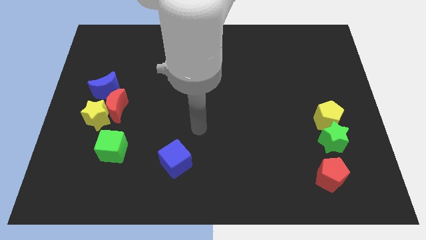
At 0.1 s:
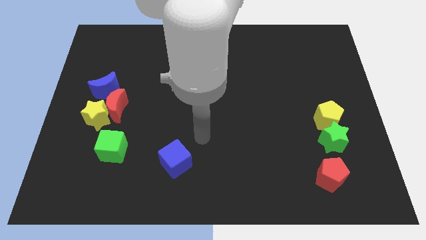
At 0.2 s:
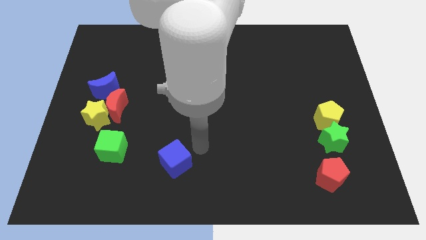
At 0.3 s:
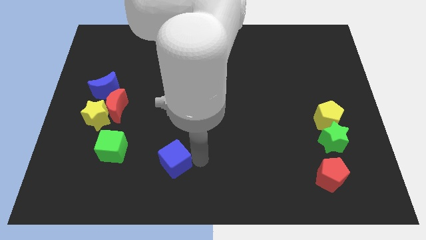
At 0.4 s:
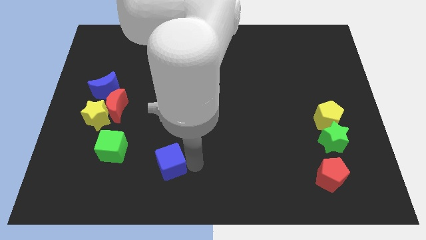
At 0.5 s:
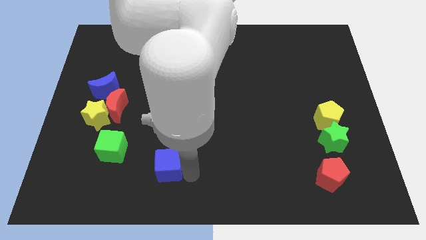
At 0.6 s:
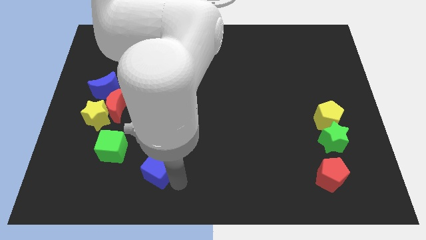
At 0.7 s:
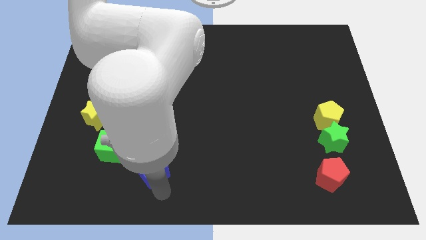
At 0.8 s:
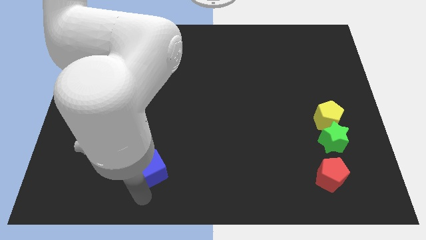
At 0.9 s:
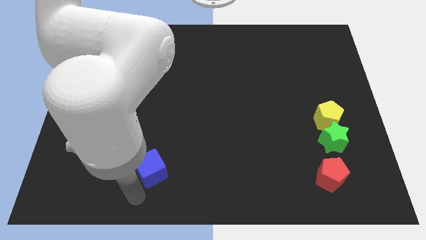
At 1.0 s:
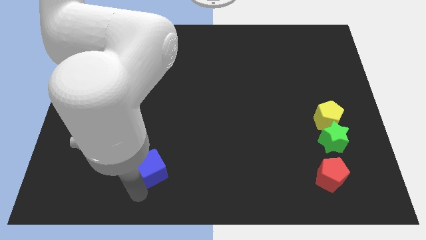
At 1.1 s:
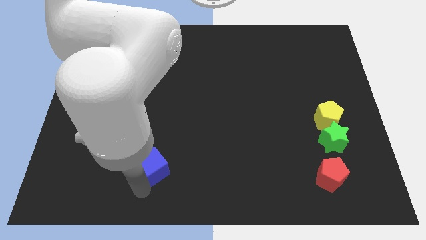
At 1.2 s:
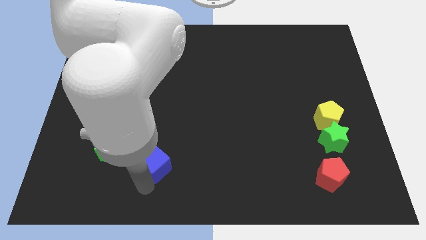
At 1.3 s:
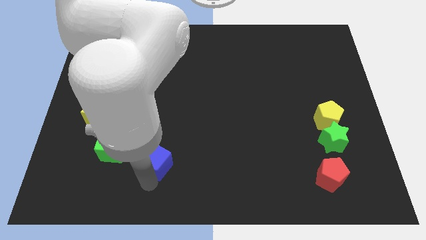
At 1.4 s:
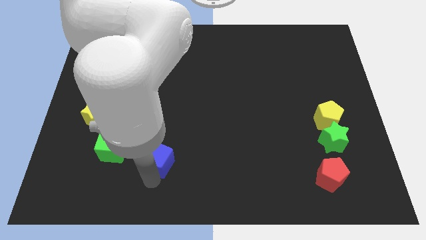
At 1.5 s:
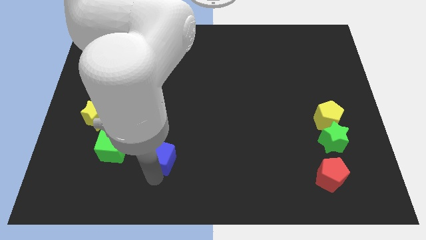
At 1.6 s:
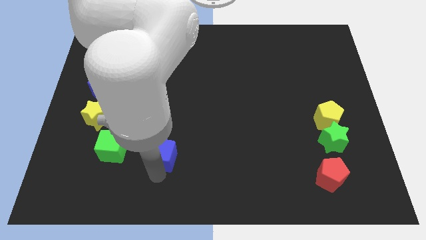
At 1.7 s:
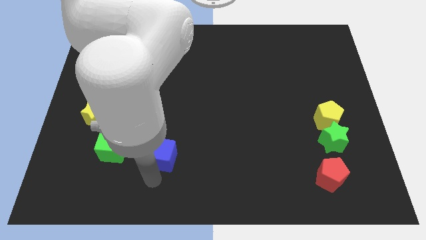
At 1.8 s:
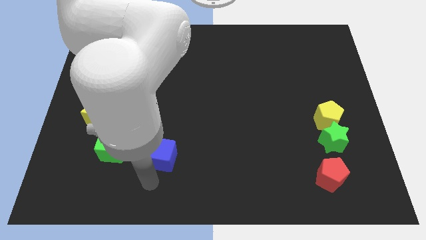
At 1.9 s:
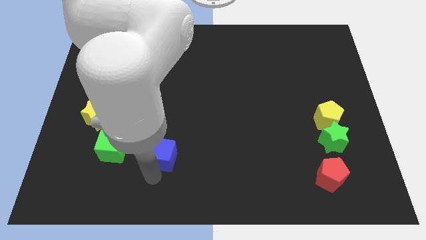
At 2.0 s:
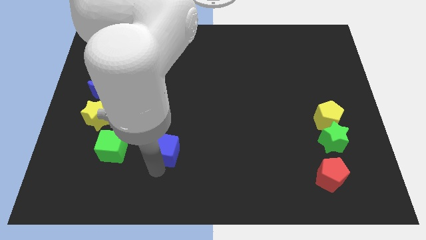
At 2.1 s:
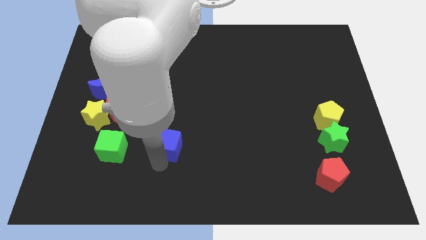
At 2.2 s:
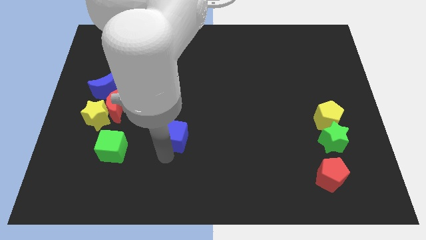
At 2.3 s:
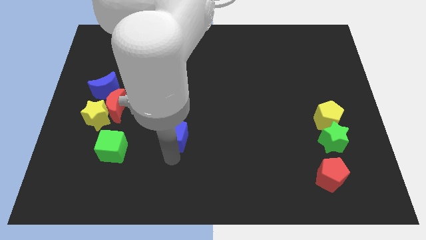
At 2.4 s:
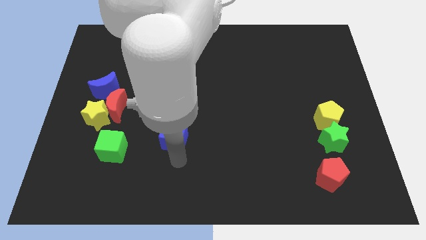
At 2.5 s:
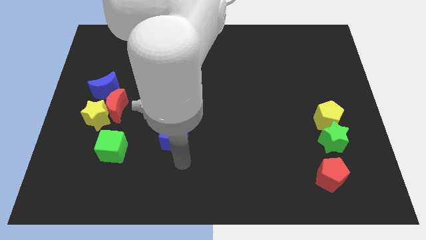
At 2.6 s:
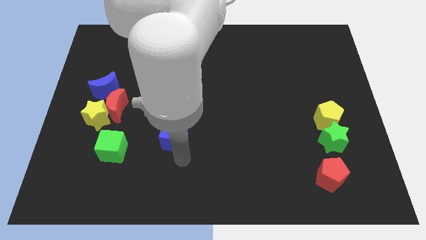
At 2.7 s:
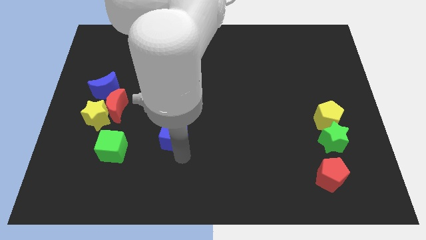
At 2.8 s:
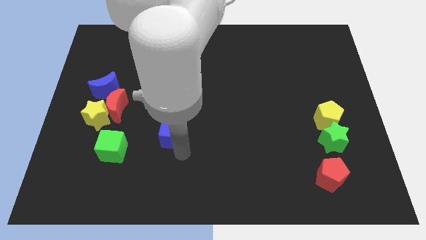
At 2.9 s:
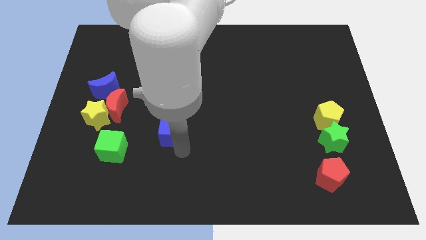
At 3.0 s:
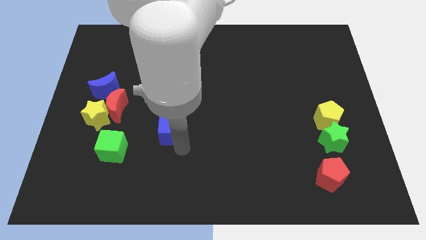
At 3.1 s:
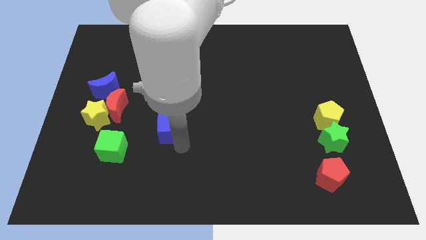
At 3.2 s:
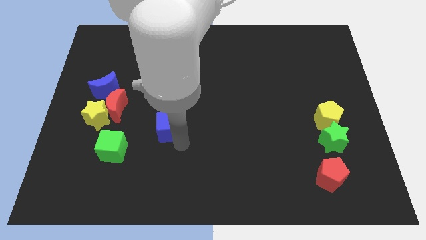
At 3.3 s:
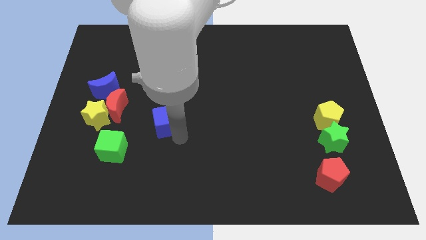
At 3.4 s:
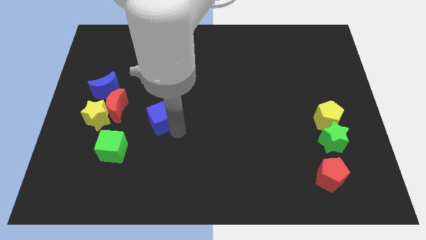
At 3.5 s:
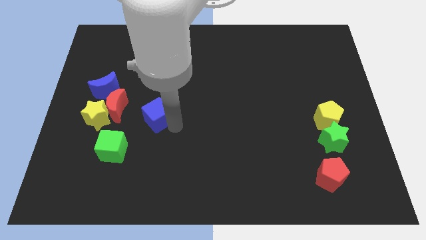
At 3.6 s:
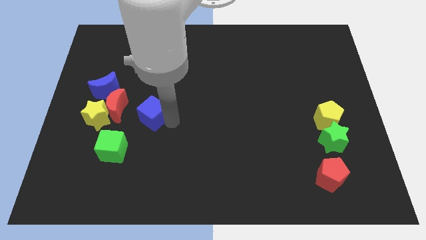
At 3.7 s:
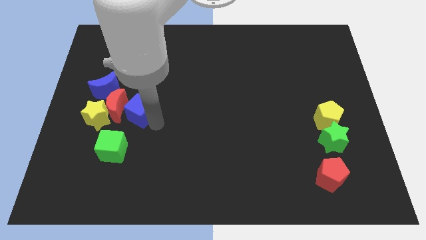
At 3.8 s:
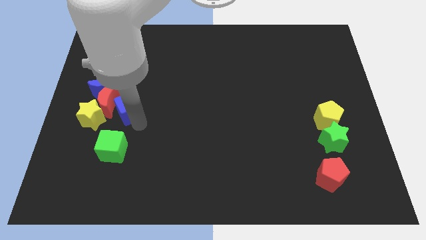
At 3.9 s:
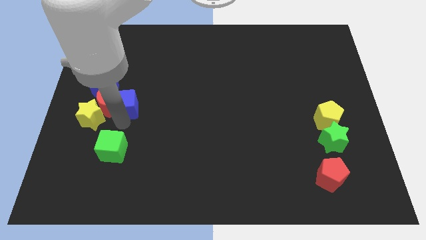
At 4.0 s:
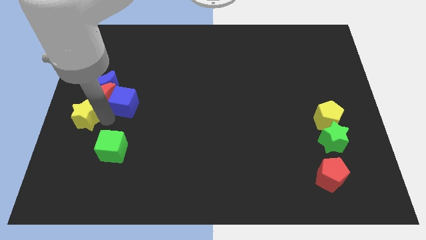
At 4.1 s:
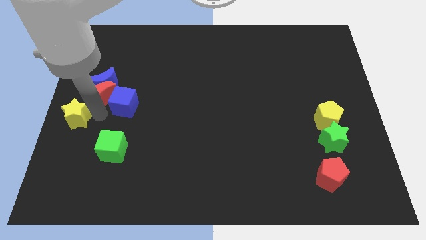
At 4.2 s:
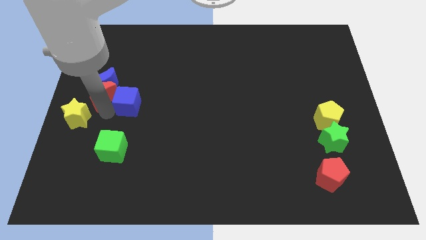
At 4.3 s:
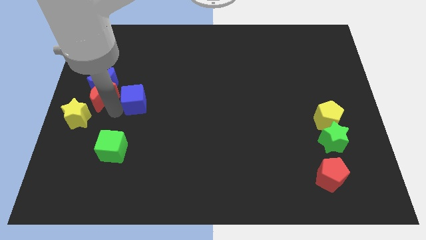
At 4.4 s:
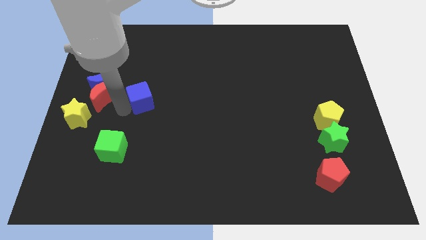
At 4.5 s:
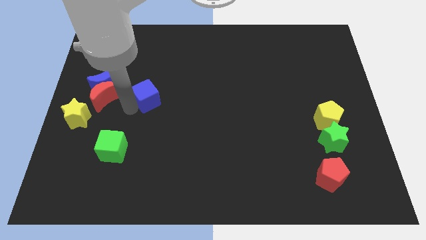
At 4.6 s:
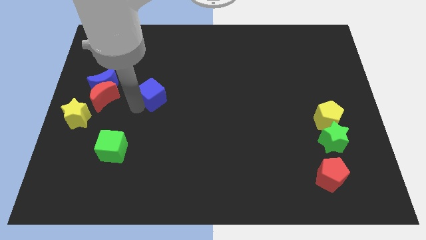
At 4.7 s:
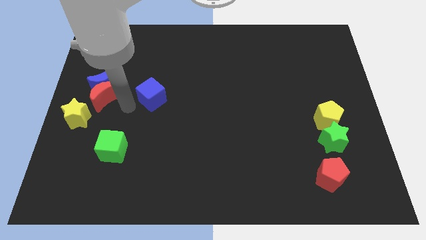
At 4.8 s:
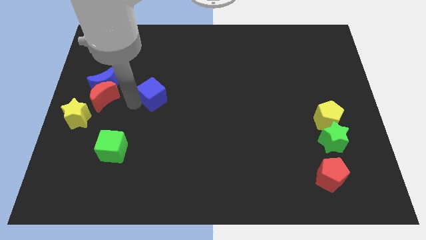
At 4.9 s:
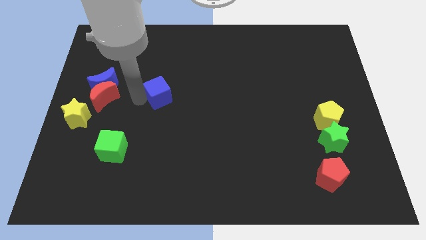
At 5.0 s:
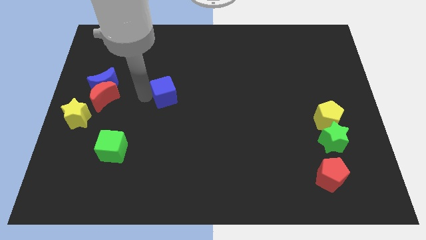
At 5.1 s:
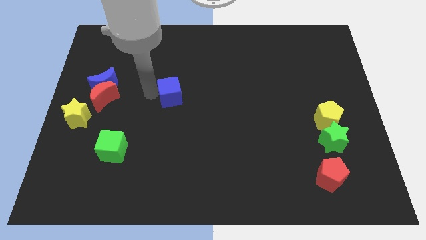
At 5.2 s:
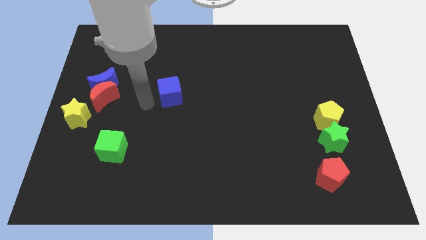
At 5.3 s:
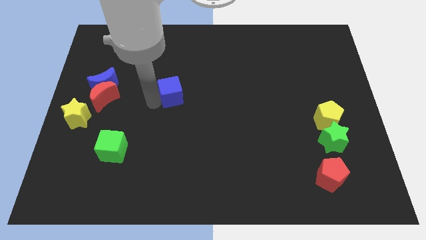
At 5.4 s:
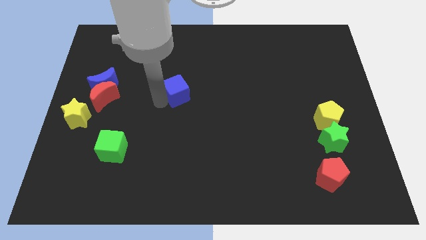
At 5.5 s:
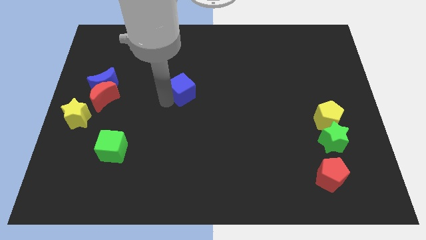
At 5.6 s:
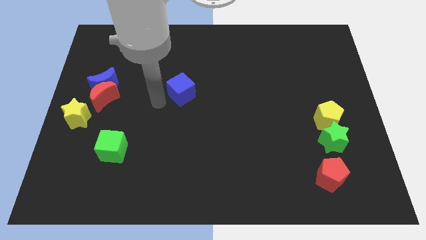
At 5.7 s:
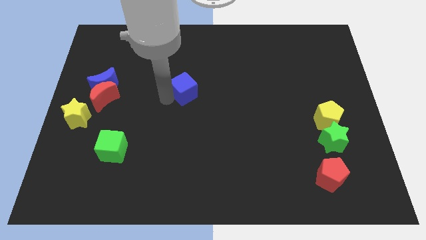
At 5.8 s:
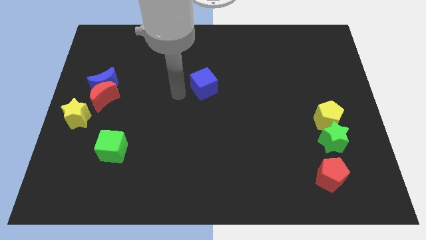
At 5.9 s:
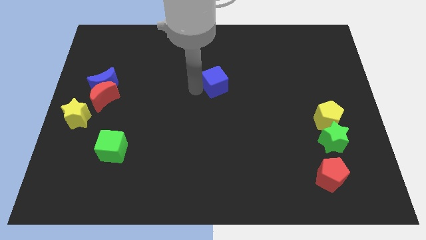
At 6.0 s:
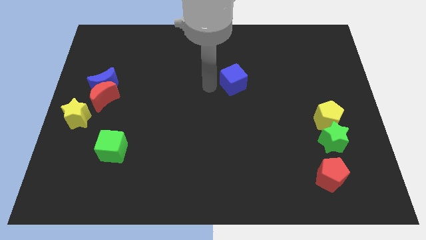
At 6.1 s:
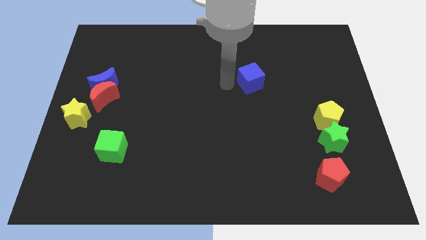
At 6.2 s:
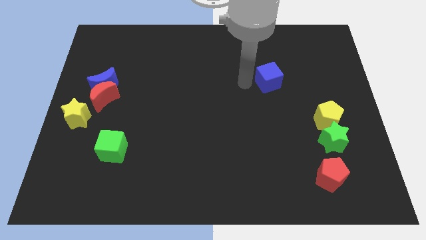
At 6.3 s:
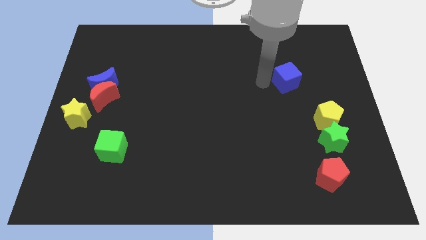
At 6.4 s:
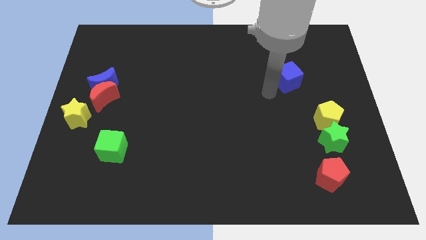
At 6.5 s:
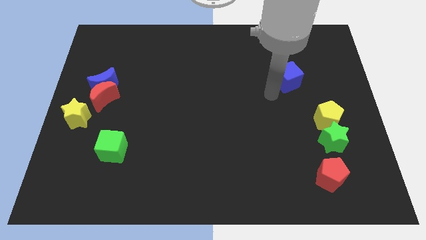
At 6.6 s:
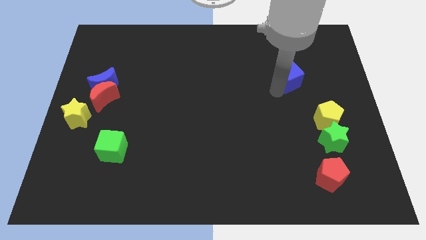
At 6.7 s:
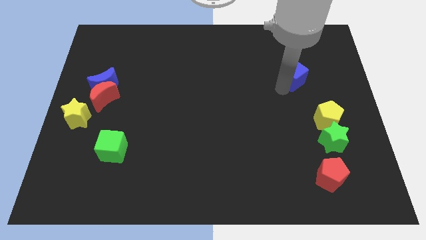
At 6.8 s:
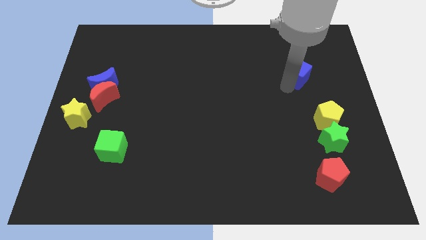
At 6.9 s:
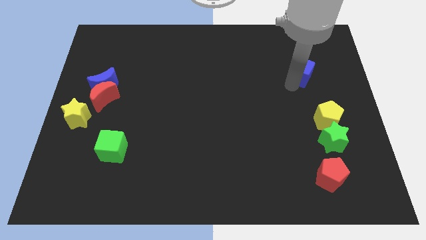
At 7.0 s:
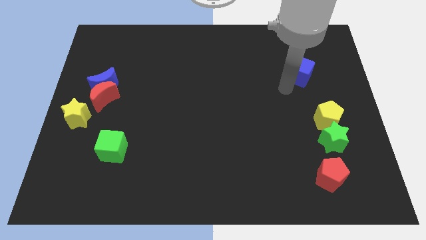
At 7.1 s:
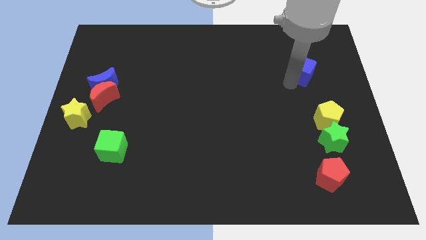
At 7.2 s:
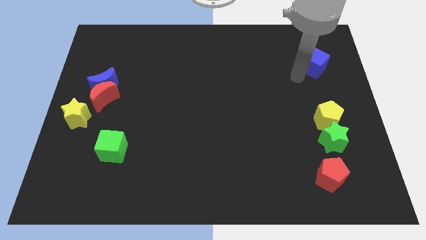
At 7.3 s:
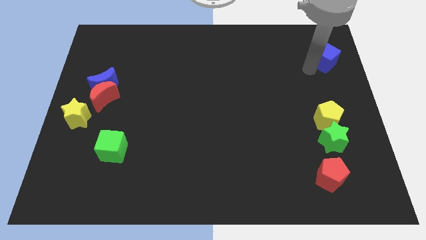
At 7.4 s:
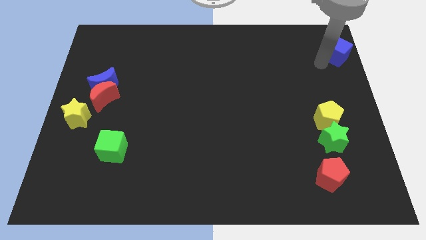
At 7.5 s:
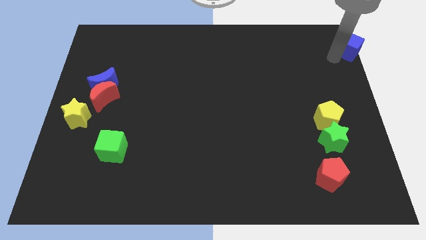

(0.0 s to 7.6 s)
put the blue cube to the upper right corner
